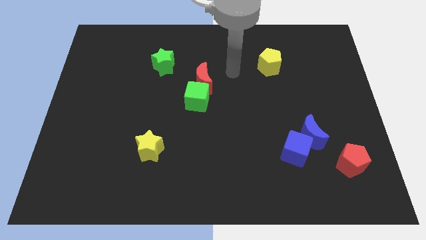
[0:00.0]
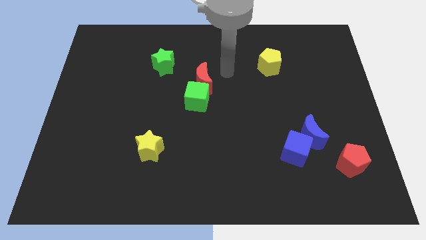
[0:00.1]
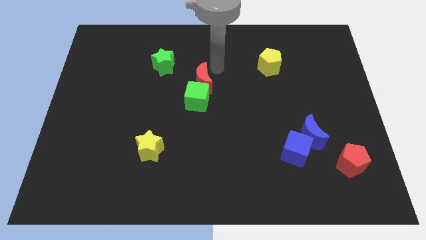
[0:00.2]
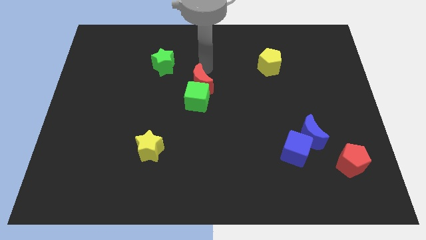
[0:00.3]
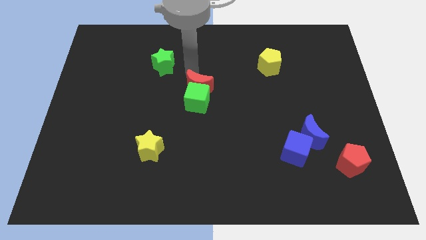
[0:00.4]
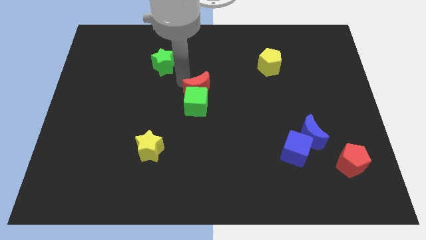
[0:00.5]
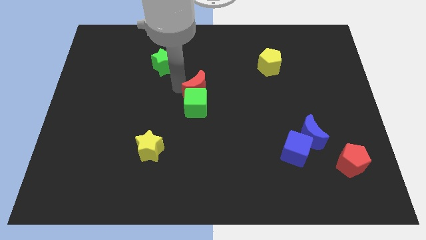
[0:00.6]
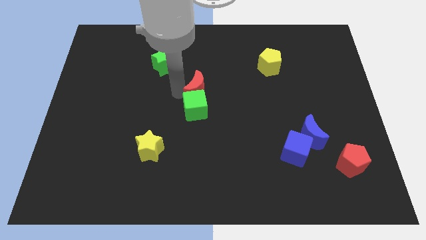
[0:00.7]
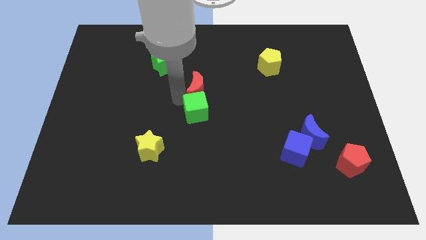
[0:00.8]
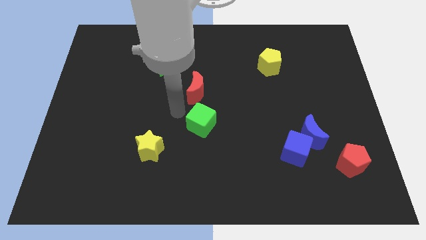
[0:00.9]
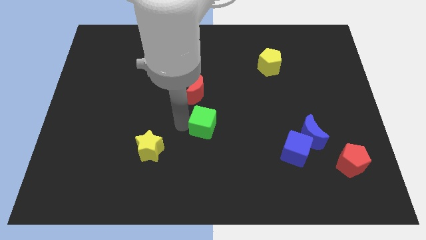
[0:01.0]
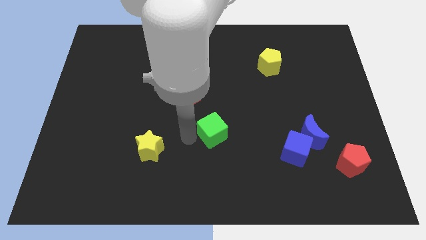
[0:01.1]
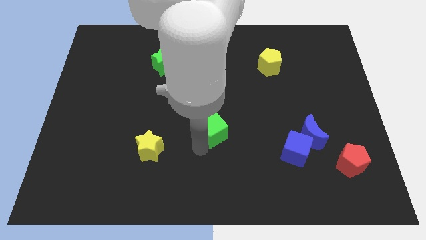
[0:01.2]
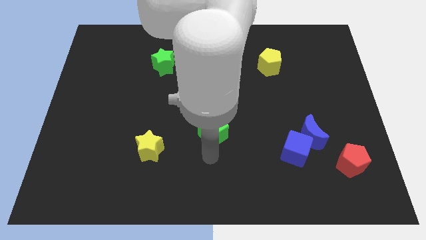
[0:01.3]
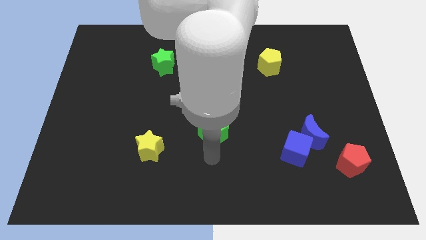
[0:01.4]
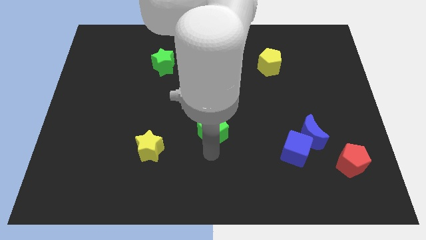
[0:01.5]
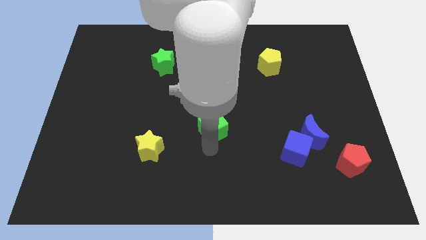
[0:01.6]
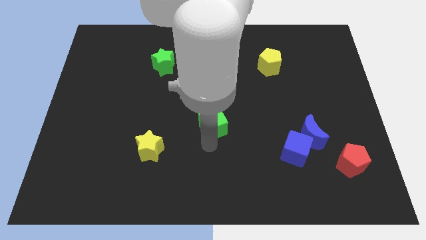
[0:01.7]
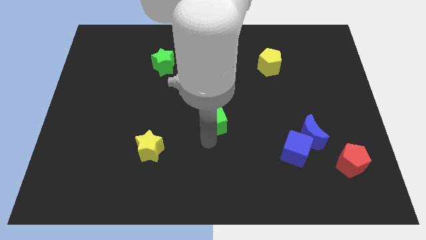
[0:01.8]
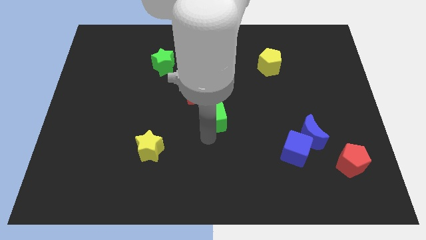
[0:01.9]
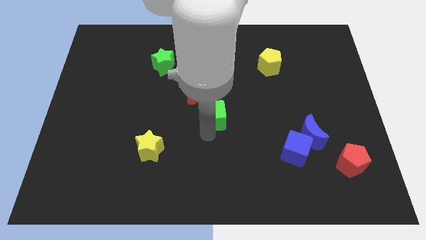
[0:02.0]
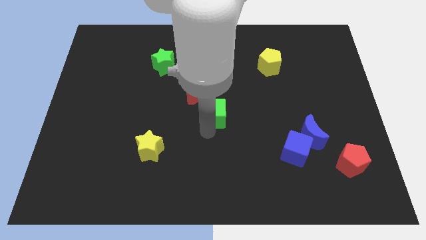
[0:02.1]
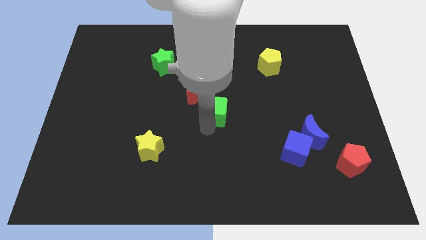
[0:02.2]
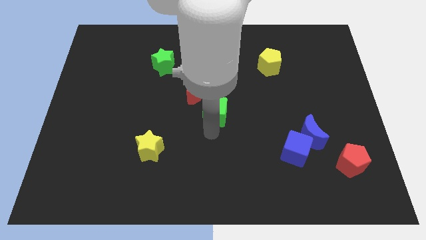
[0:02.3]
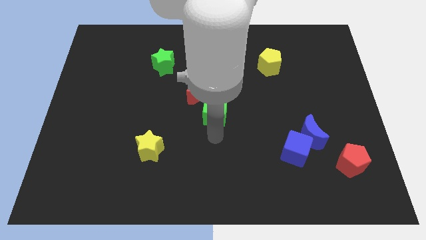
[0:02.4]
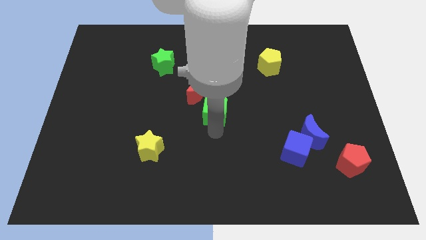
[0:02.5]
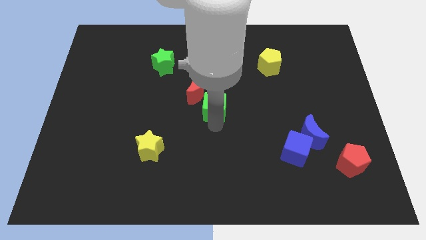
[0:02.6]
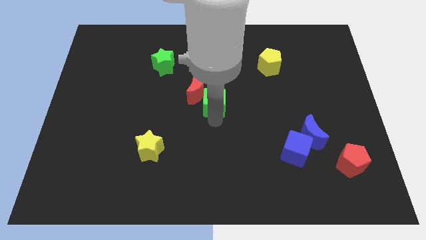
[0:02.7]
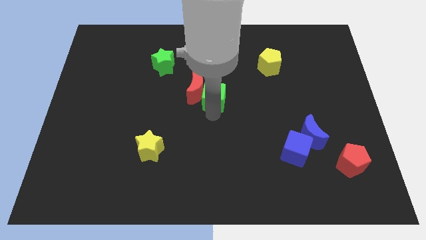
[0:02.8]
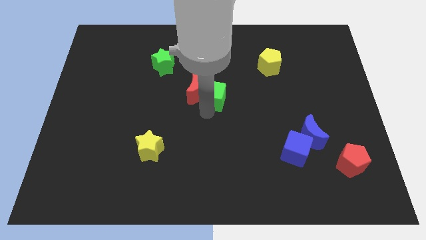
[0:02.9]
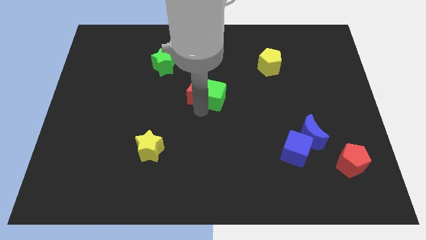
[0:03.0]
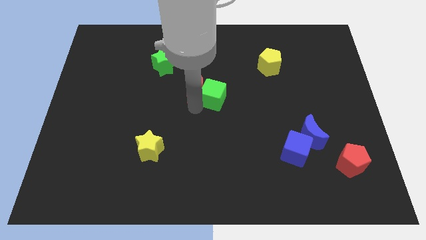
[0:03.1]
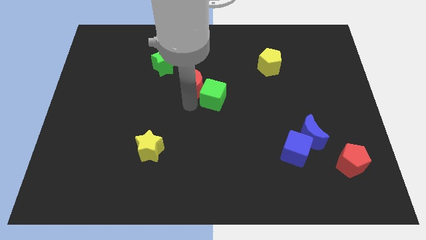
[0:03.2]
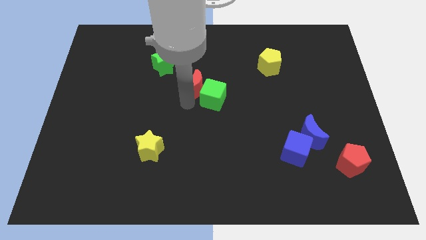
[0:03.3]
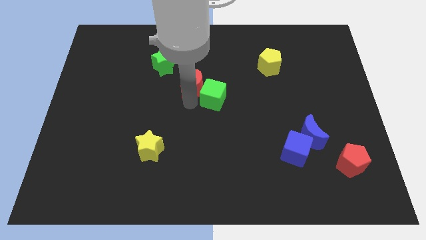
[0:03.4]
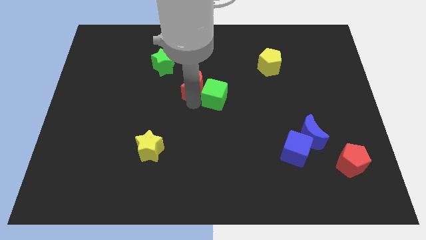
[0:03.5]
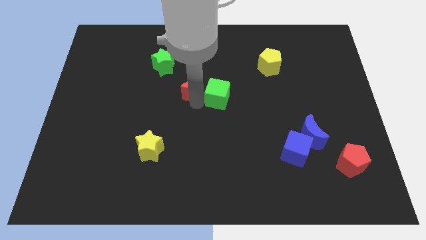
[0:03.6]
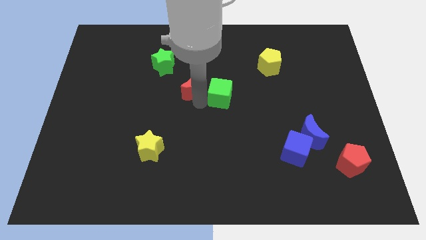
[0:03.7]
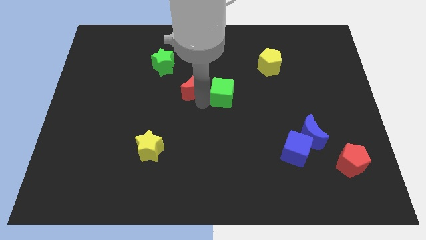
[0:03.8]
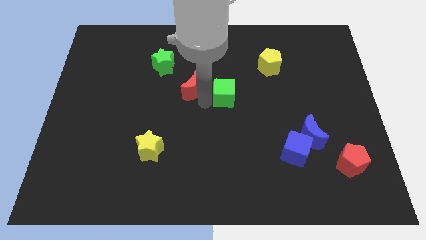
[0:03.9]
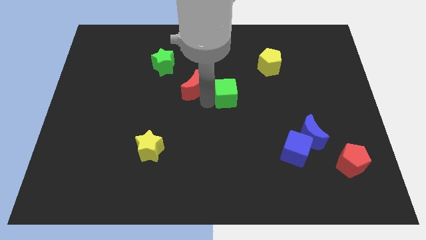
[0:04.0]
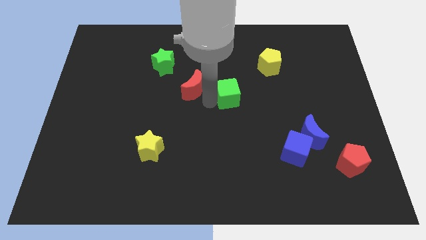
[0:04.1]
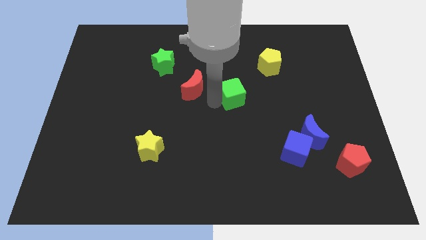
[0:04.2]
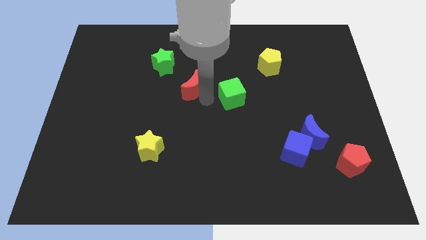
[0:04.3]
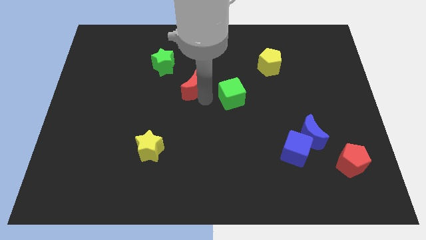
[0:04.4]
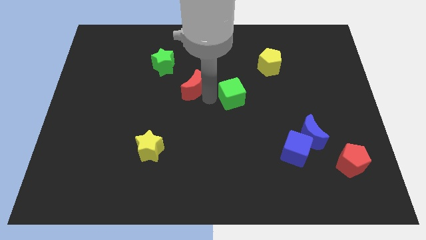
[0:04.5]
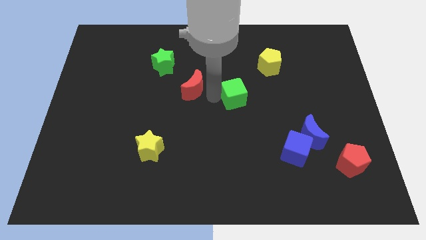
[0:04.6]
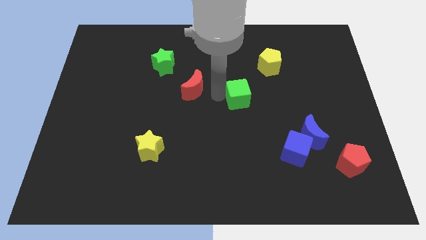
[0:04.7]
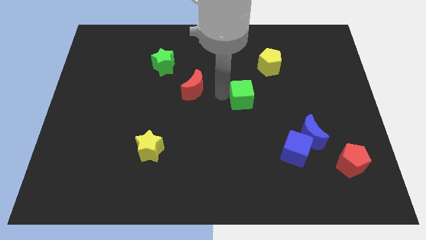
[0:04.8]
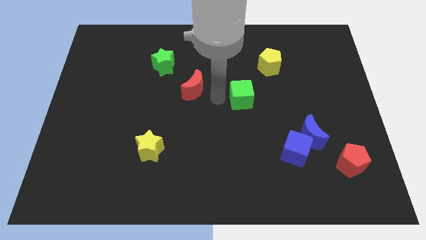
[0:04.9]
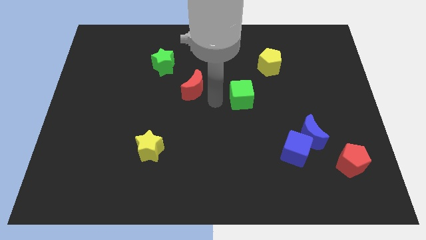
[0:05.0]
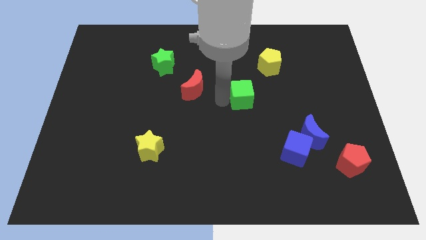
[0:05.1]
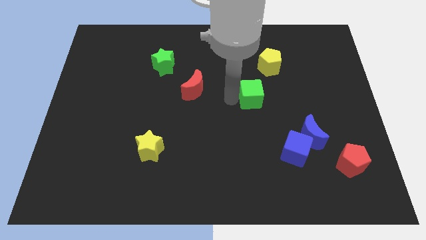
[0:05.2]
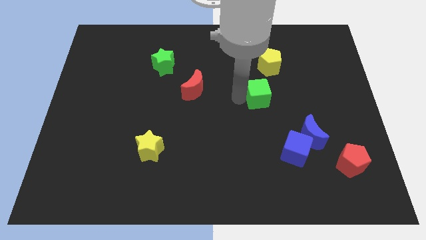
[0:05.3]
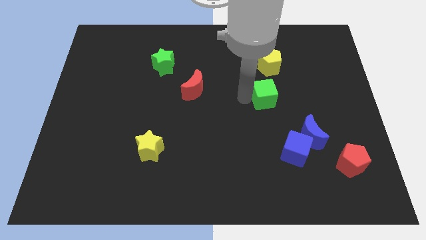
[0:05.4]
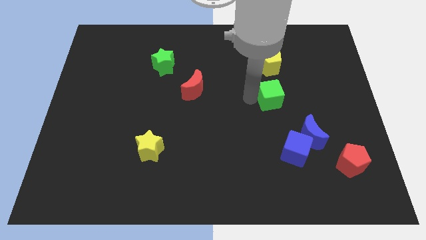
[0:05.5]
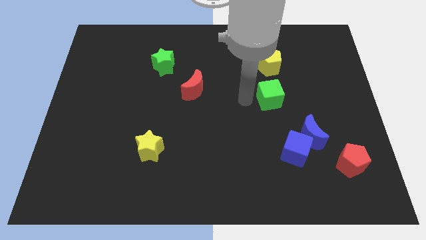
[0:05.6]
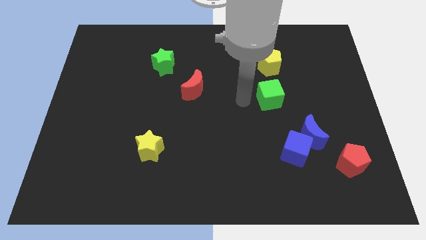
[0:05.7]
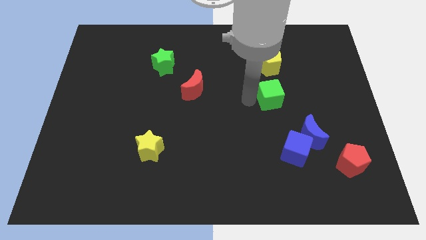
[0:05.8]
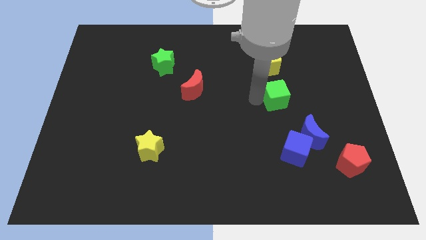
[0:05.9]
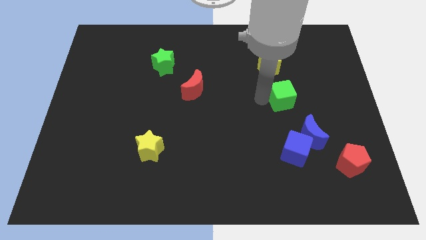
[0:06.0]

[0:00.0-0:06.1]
push the green cube to the right

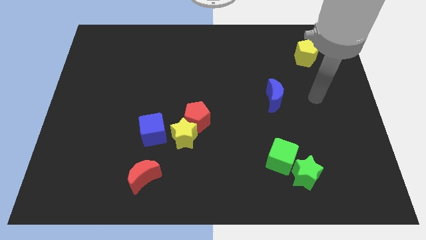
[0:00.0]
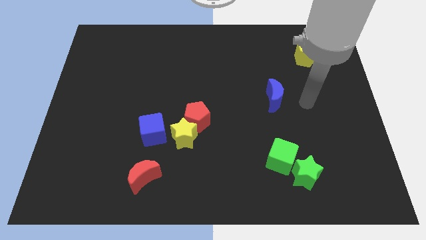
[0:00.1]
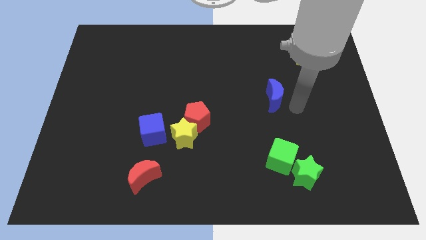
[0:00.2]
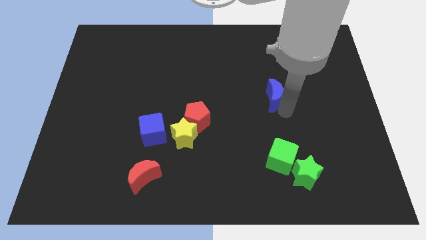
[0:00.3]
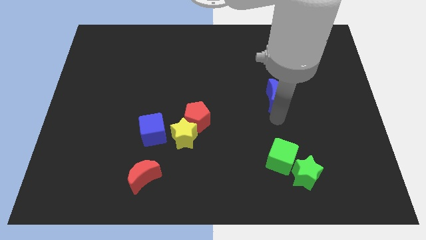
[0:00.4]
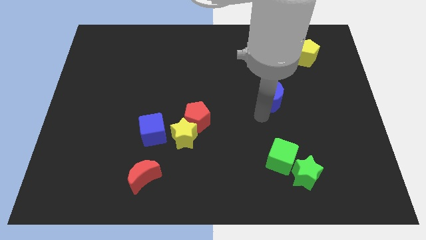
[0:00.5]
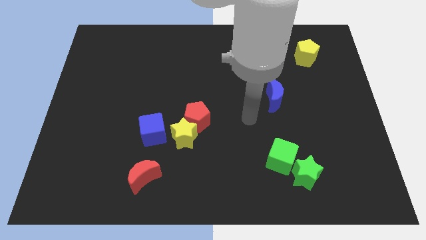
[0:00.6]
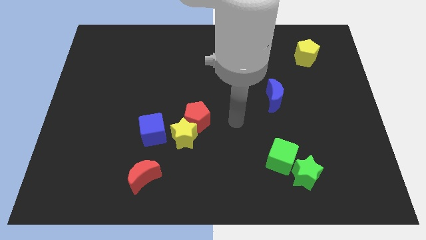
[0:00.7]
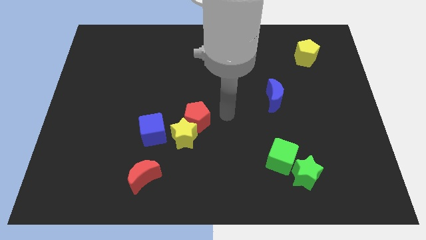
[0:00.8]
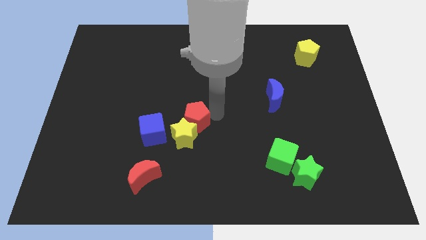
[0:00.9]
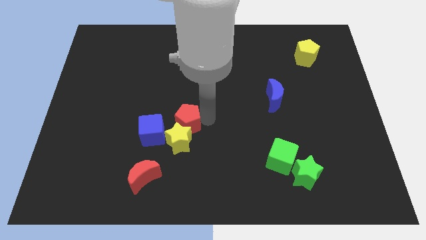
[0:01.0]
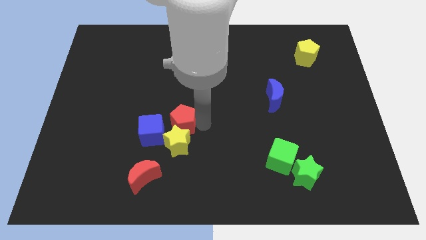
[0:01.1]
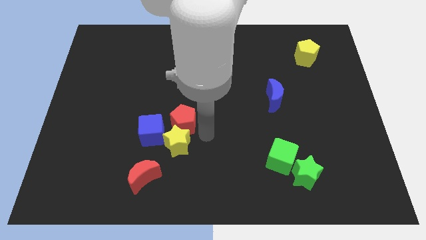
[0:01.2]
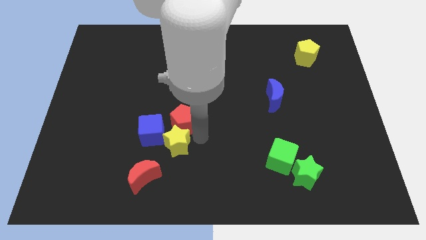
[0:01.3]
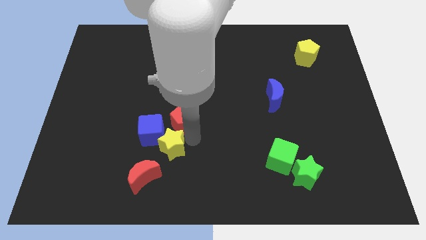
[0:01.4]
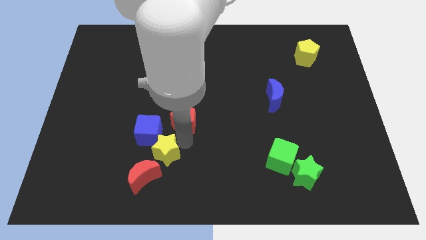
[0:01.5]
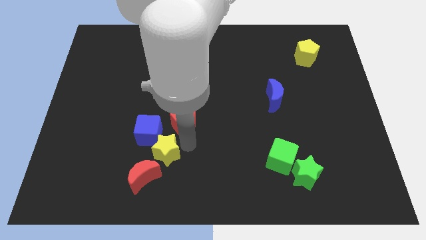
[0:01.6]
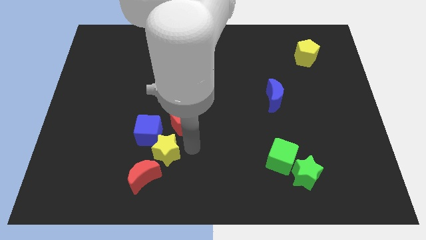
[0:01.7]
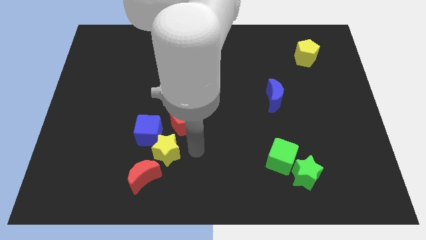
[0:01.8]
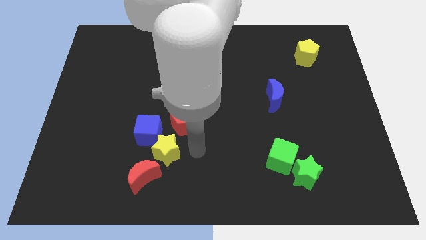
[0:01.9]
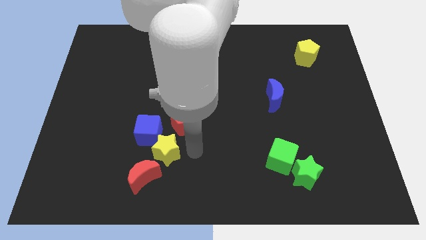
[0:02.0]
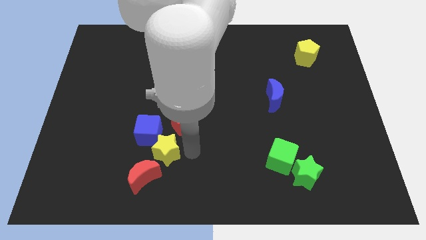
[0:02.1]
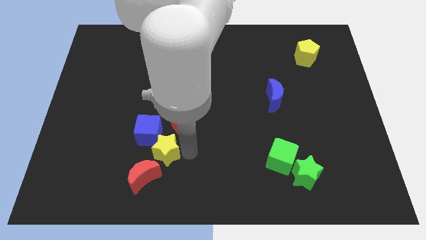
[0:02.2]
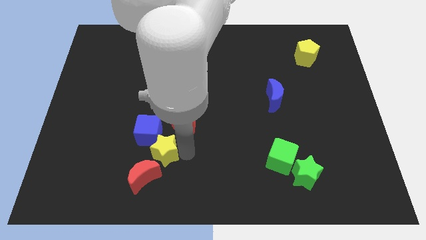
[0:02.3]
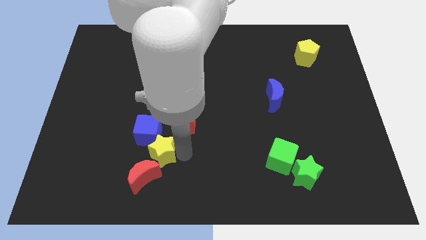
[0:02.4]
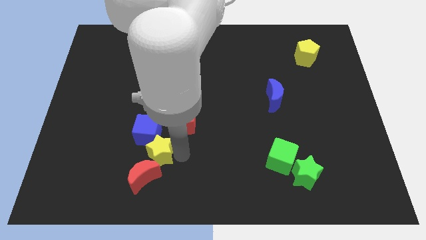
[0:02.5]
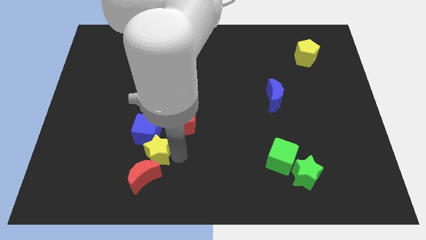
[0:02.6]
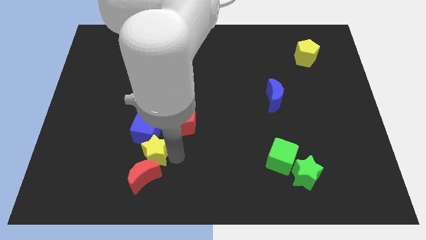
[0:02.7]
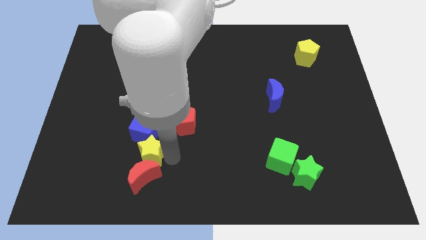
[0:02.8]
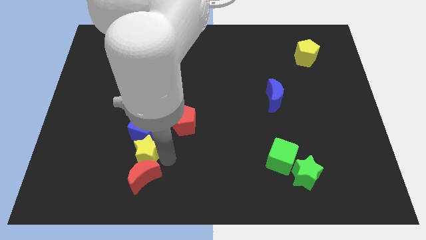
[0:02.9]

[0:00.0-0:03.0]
slightly slide the yellow star to the left
